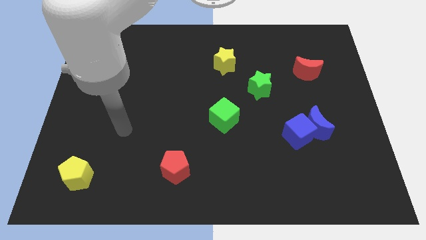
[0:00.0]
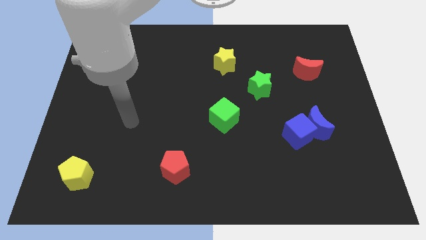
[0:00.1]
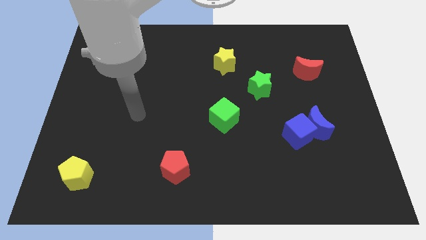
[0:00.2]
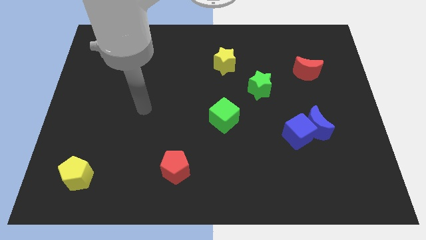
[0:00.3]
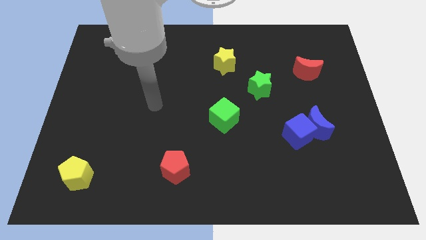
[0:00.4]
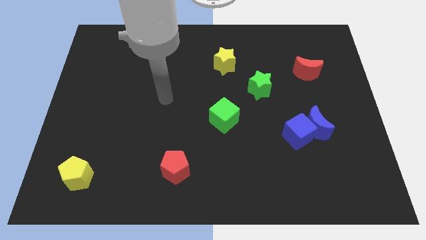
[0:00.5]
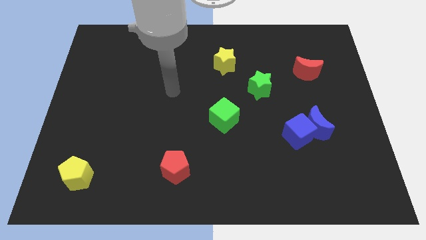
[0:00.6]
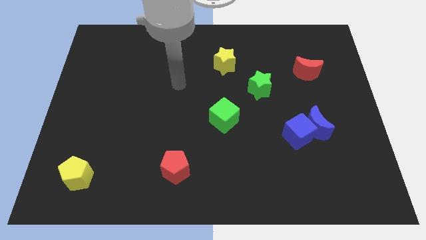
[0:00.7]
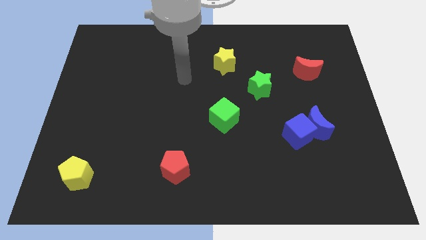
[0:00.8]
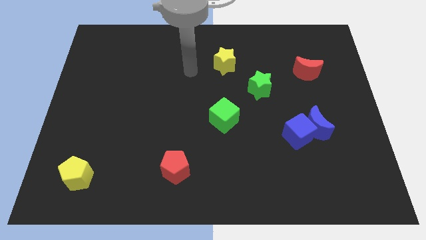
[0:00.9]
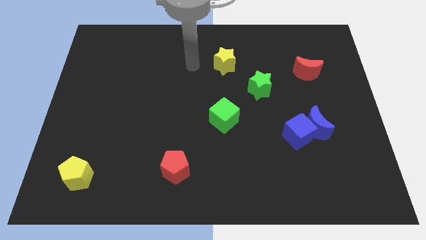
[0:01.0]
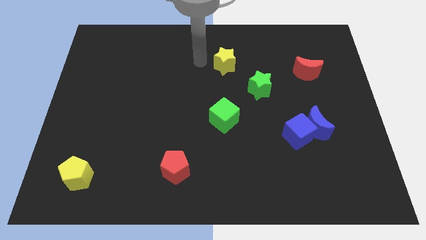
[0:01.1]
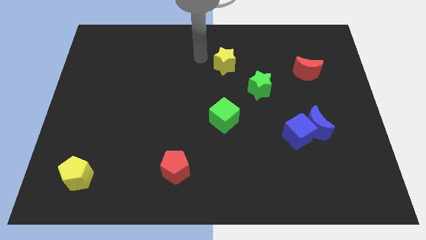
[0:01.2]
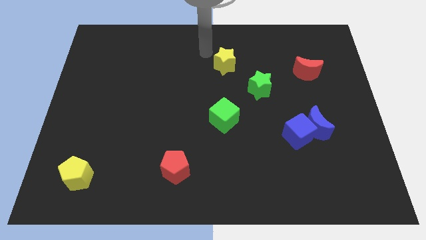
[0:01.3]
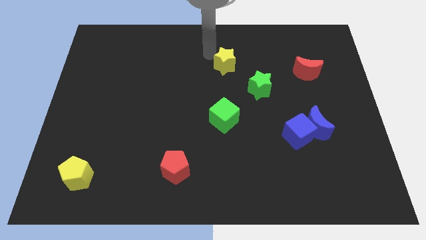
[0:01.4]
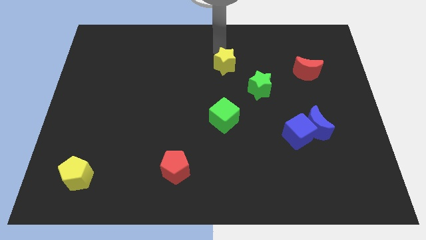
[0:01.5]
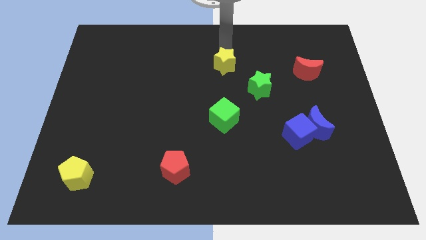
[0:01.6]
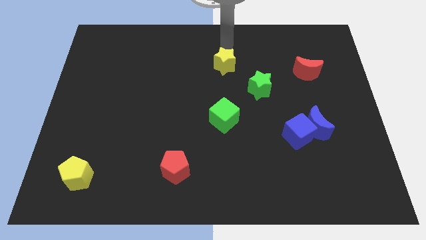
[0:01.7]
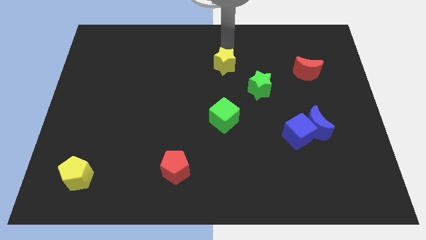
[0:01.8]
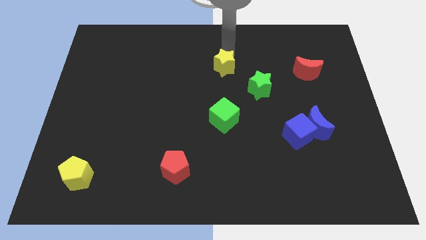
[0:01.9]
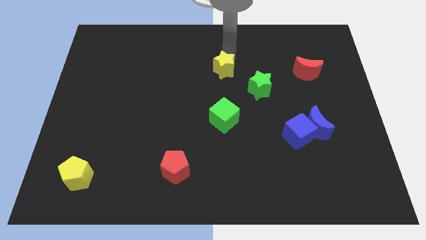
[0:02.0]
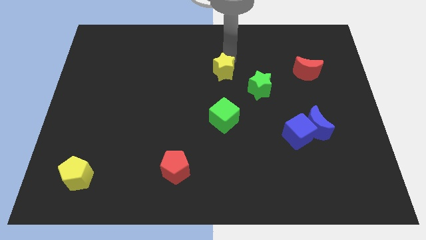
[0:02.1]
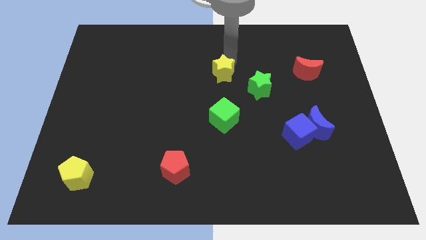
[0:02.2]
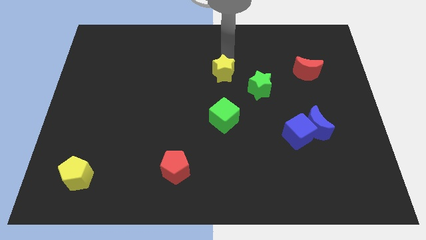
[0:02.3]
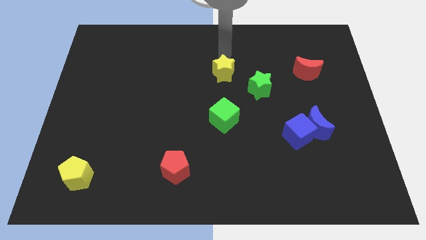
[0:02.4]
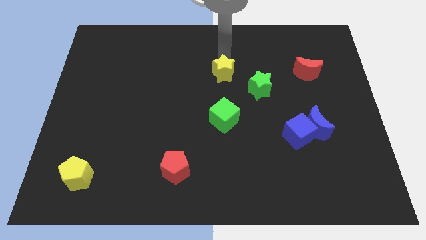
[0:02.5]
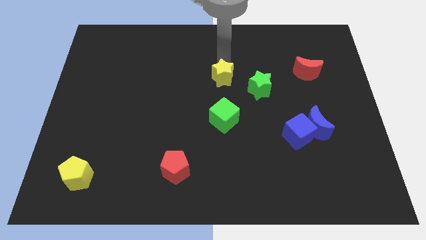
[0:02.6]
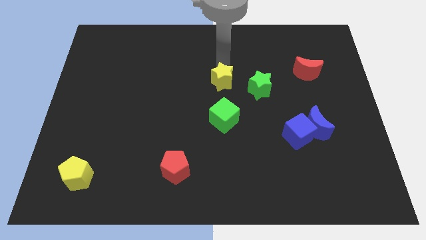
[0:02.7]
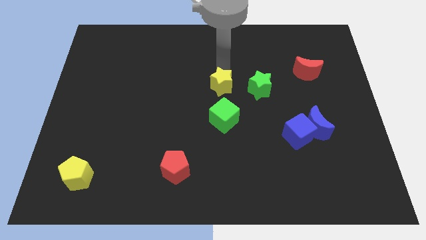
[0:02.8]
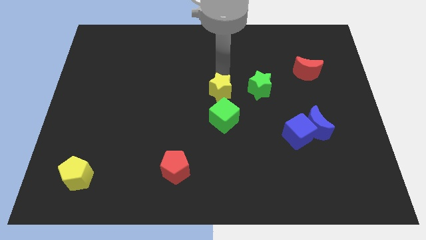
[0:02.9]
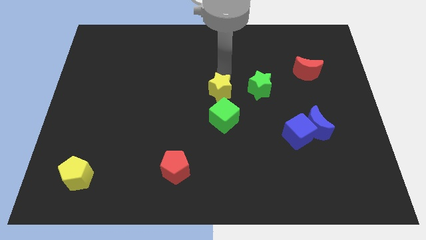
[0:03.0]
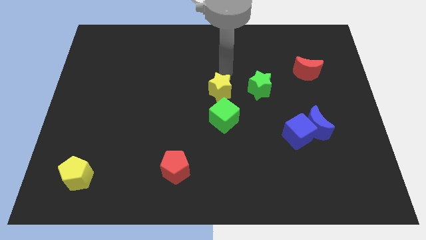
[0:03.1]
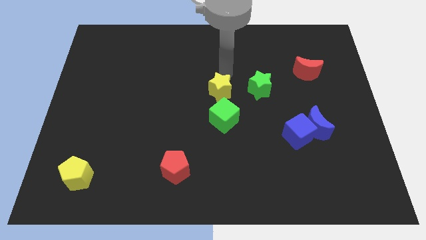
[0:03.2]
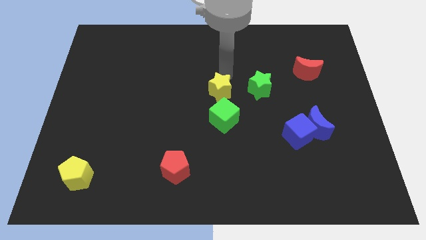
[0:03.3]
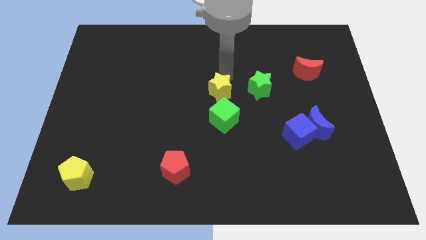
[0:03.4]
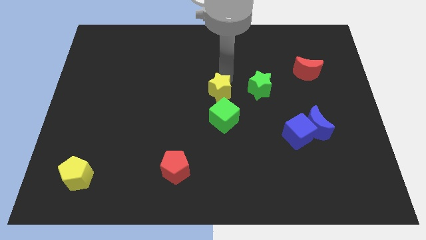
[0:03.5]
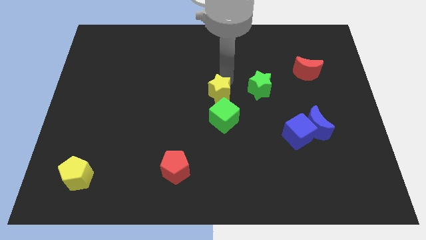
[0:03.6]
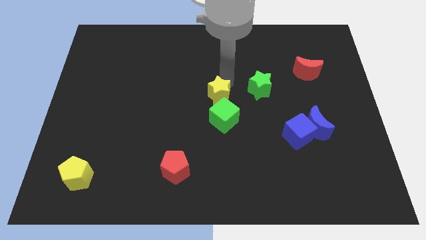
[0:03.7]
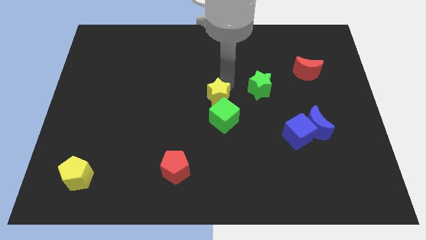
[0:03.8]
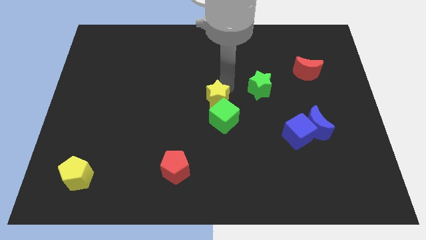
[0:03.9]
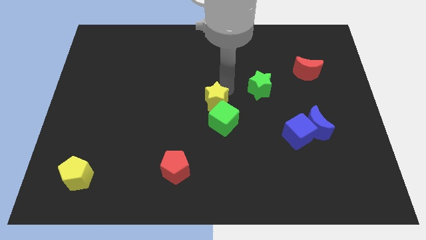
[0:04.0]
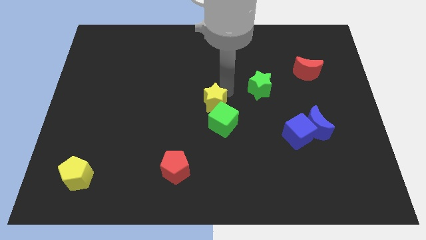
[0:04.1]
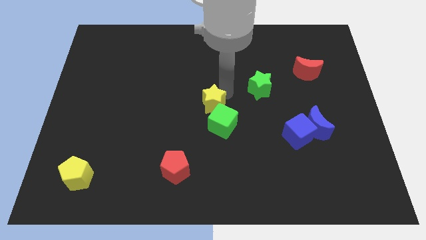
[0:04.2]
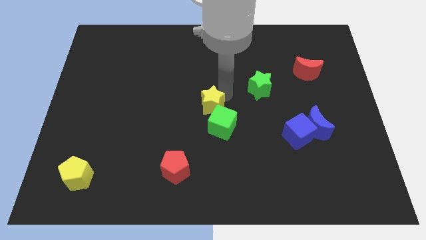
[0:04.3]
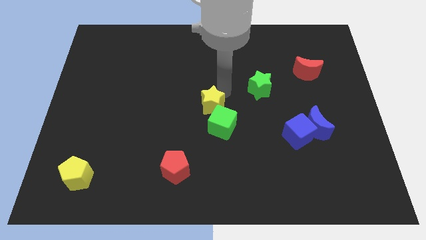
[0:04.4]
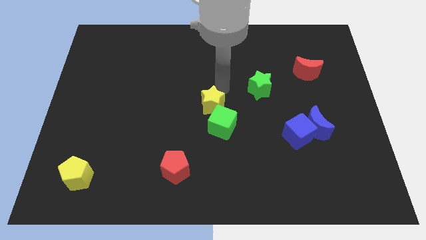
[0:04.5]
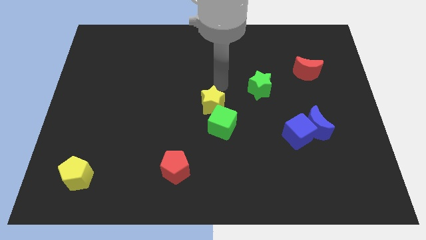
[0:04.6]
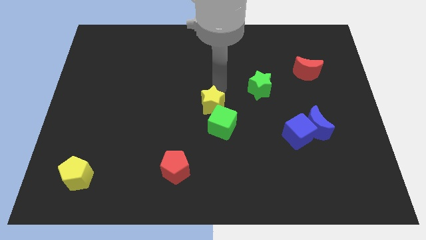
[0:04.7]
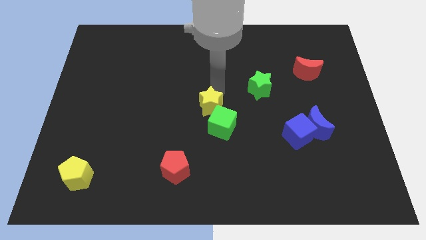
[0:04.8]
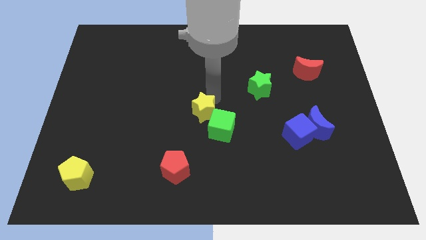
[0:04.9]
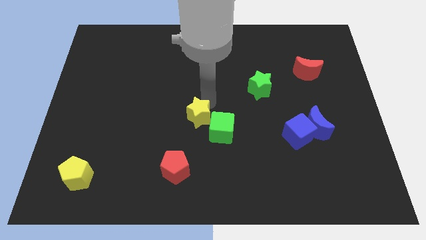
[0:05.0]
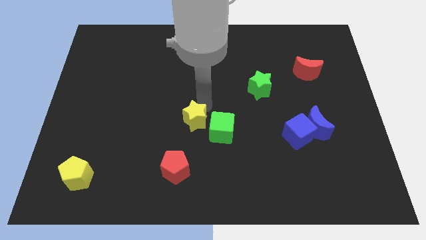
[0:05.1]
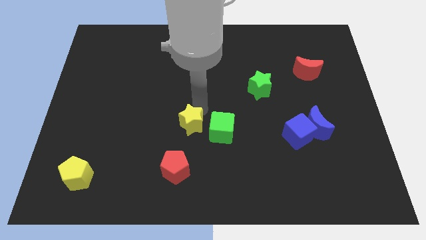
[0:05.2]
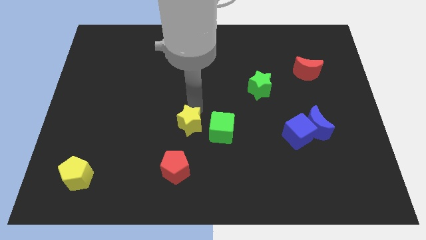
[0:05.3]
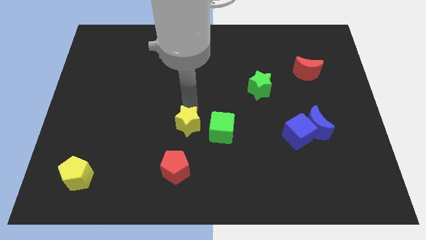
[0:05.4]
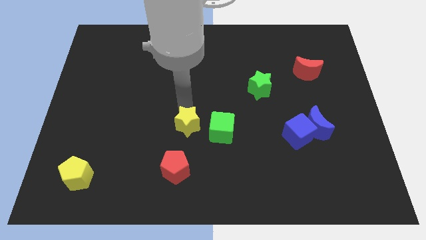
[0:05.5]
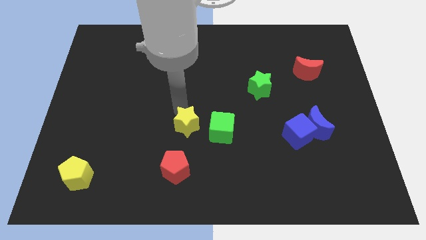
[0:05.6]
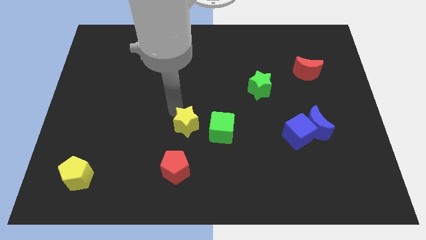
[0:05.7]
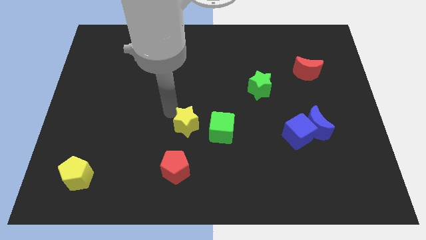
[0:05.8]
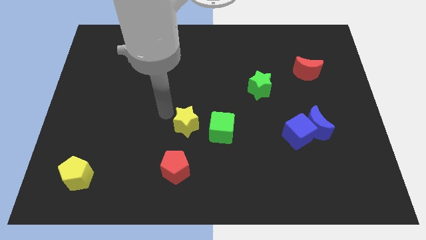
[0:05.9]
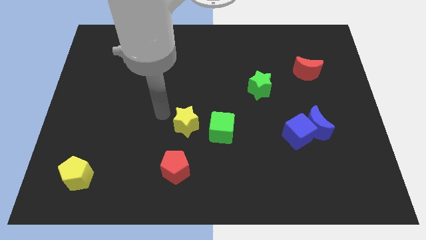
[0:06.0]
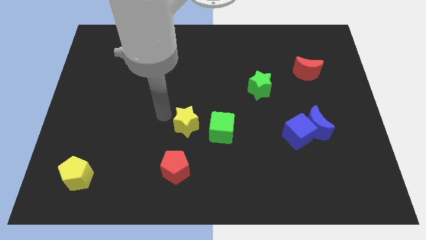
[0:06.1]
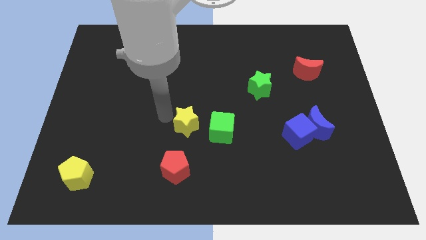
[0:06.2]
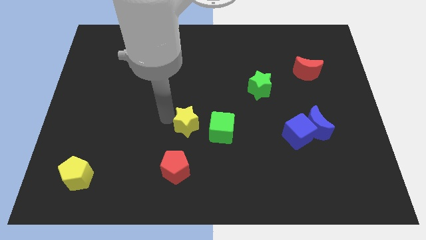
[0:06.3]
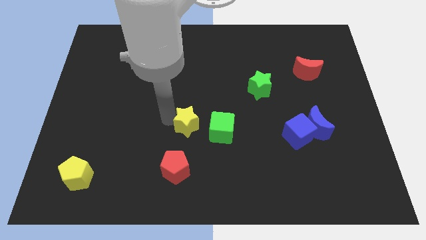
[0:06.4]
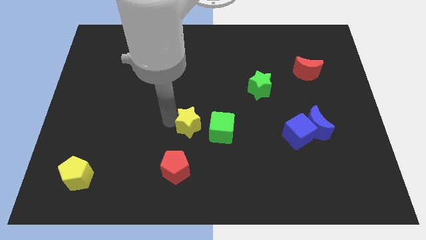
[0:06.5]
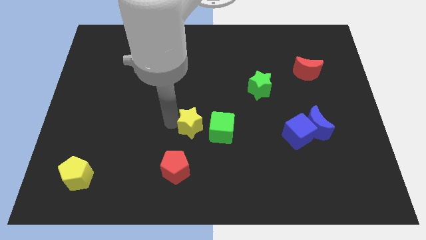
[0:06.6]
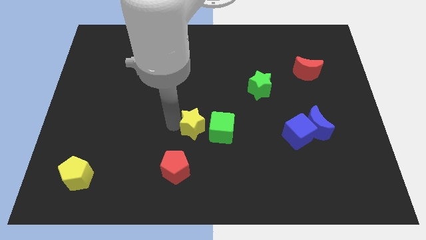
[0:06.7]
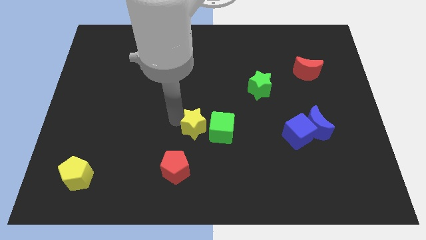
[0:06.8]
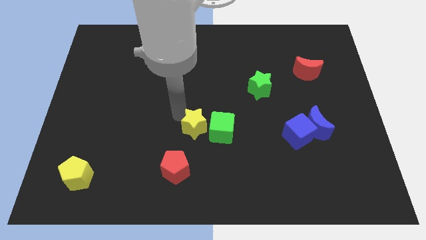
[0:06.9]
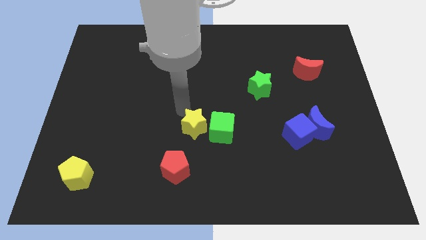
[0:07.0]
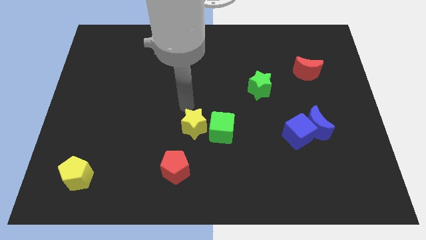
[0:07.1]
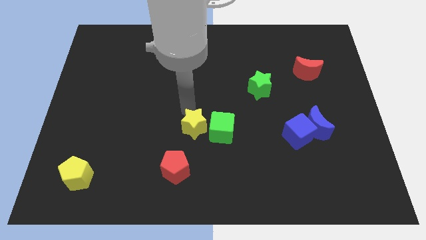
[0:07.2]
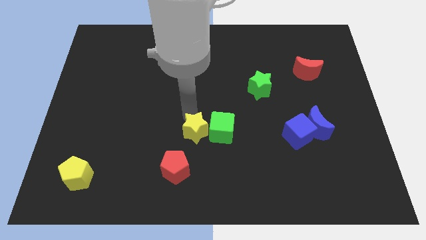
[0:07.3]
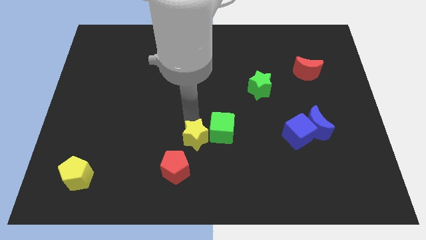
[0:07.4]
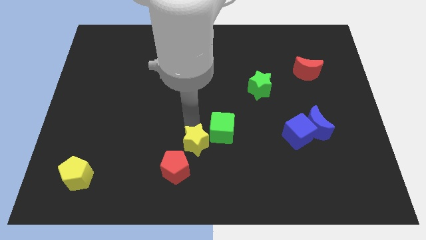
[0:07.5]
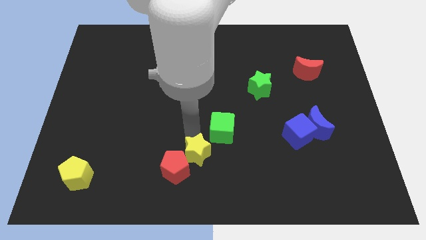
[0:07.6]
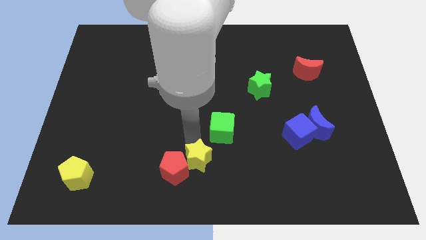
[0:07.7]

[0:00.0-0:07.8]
slide the yellow star to the bottom
